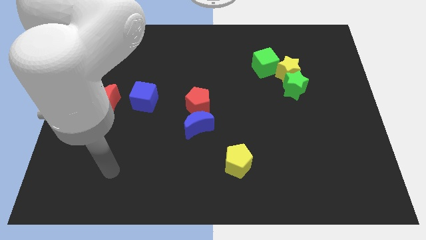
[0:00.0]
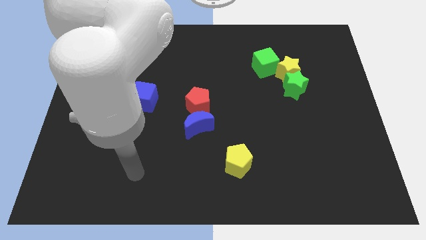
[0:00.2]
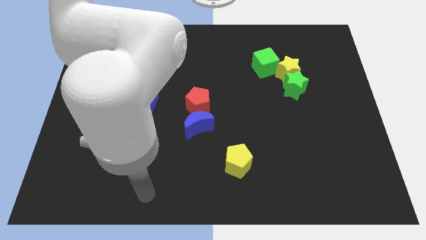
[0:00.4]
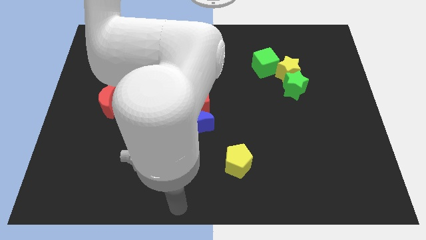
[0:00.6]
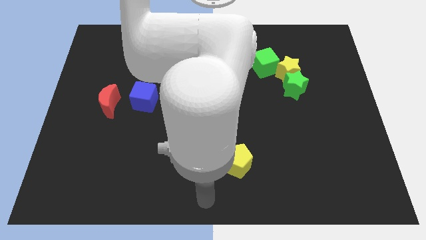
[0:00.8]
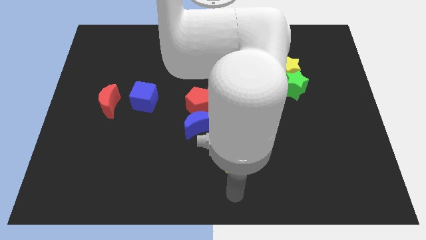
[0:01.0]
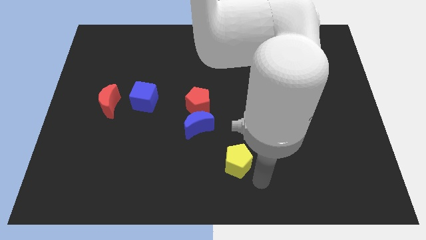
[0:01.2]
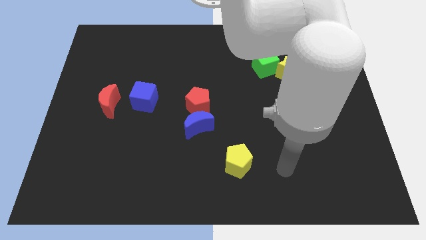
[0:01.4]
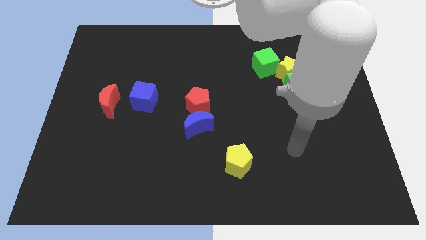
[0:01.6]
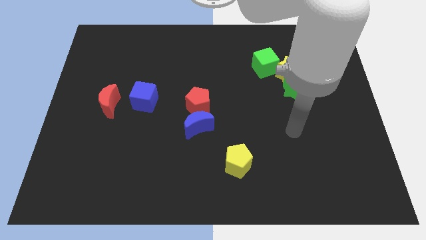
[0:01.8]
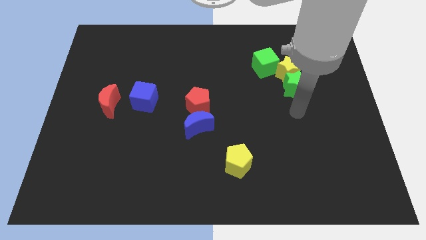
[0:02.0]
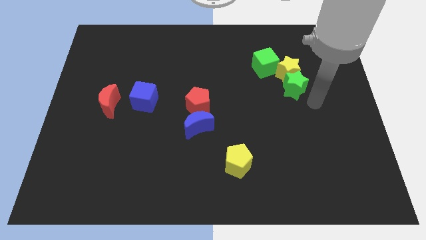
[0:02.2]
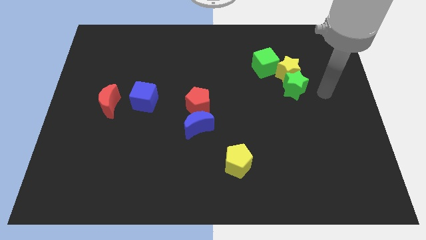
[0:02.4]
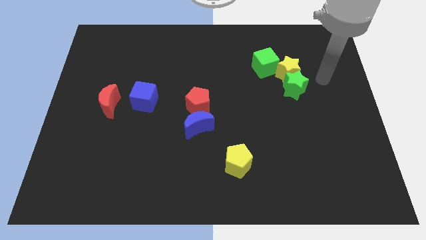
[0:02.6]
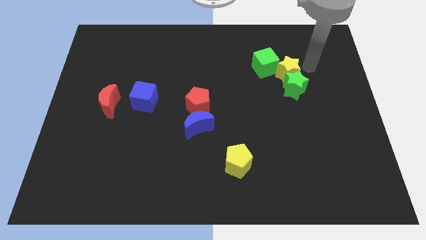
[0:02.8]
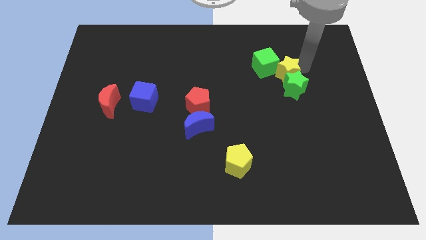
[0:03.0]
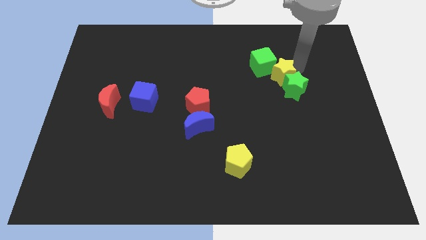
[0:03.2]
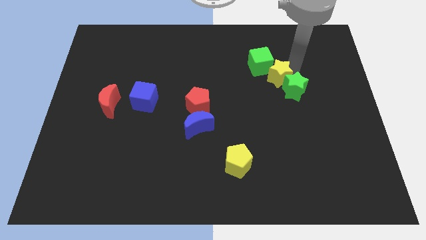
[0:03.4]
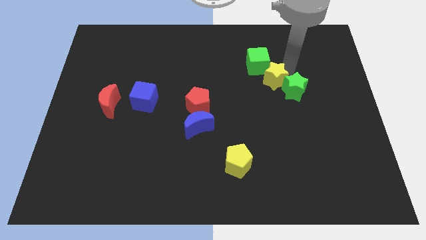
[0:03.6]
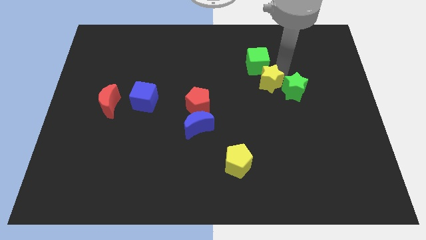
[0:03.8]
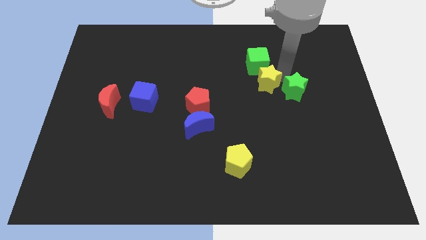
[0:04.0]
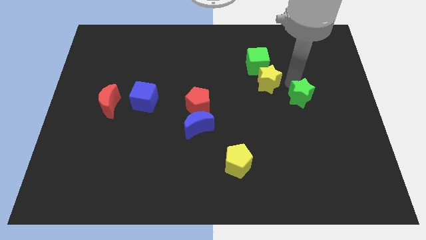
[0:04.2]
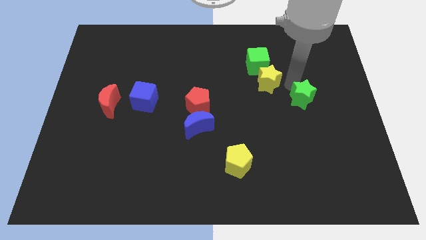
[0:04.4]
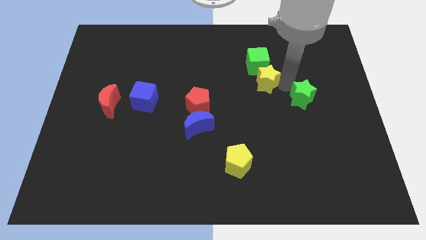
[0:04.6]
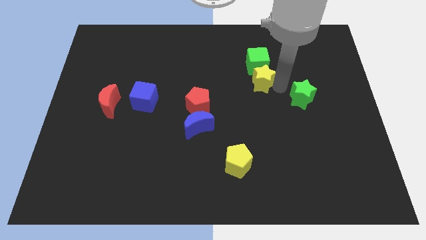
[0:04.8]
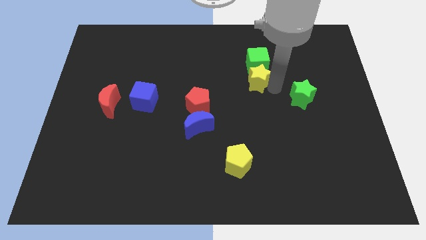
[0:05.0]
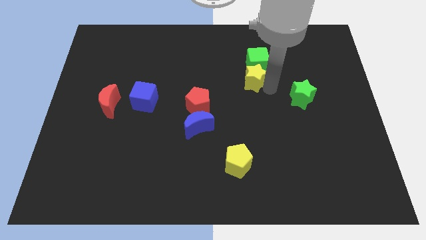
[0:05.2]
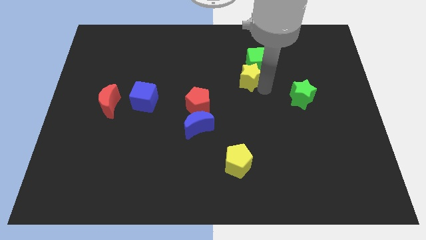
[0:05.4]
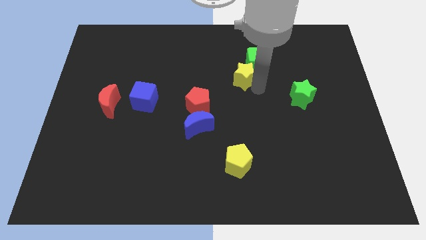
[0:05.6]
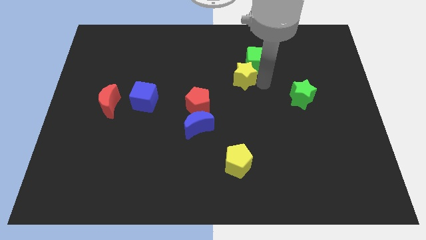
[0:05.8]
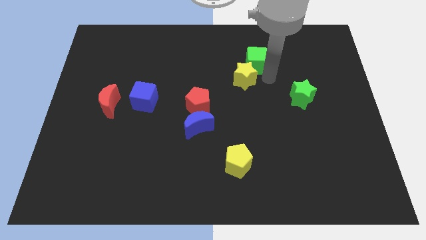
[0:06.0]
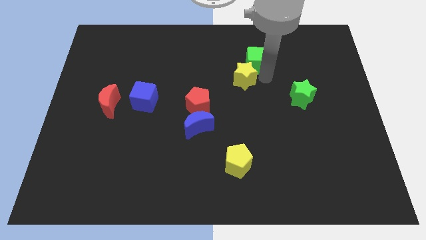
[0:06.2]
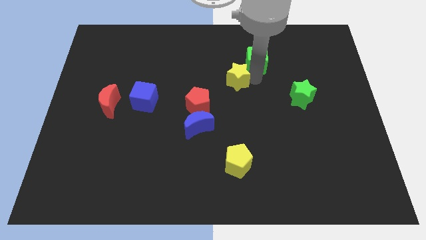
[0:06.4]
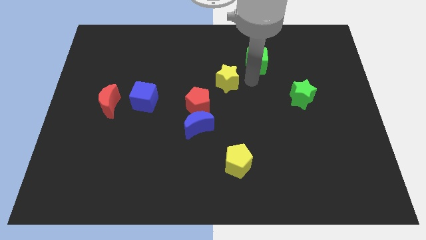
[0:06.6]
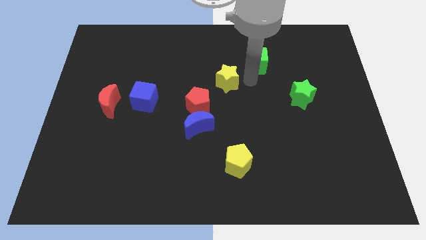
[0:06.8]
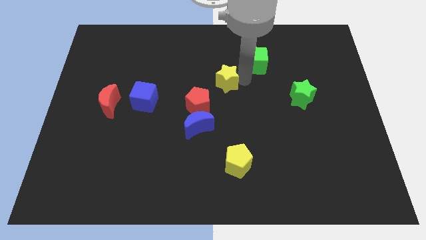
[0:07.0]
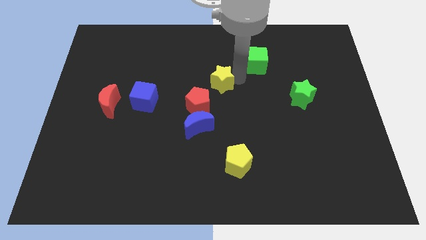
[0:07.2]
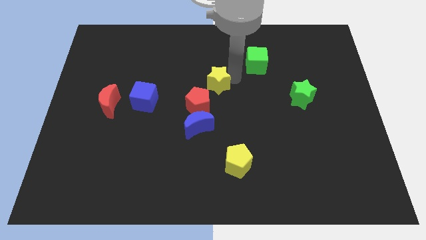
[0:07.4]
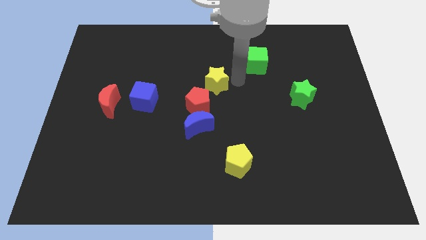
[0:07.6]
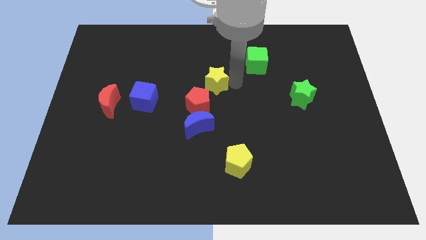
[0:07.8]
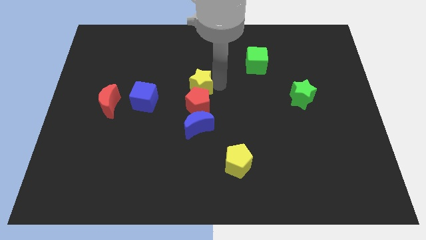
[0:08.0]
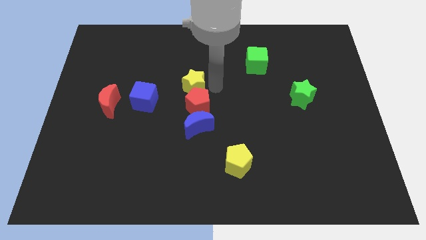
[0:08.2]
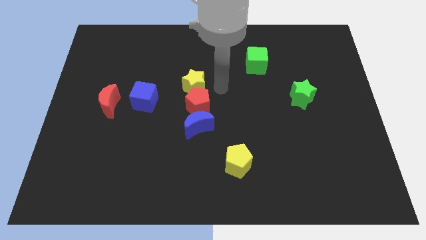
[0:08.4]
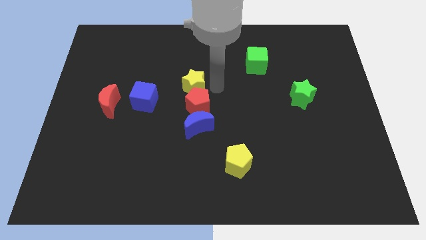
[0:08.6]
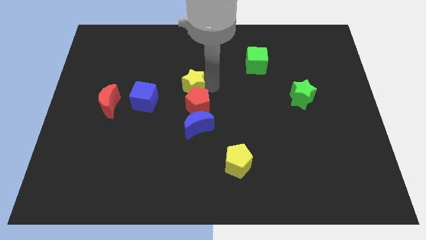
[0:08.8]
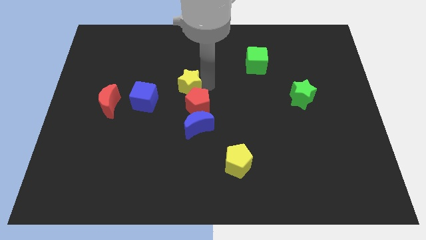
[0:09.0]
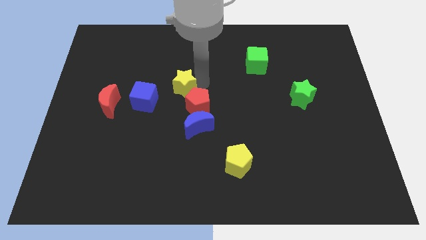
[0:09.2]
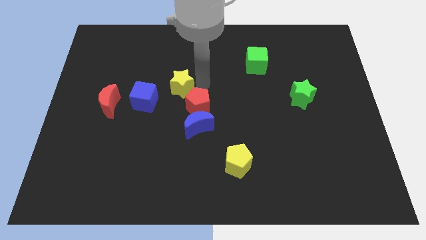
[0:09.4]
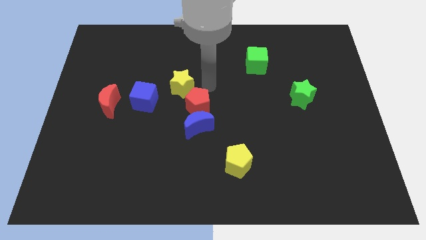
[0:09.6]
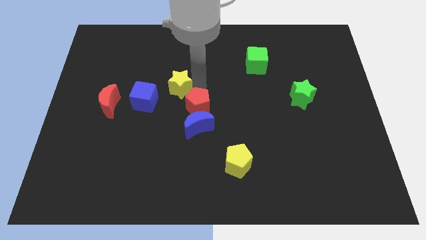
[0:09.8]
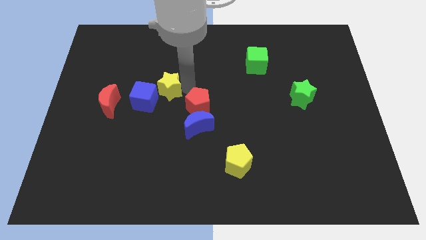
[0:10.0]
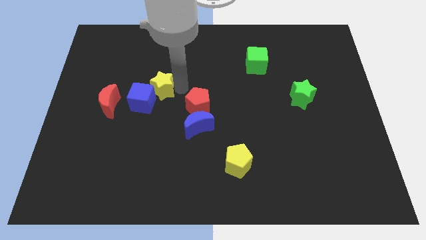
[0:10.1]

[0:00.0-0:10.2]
push the yellow star towards the blue cube

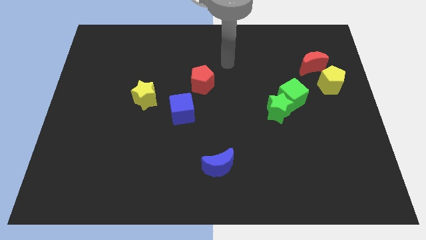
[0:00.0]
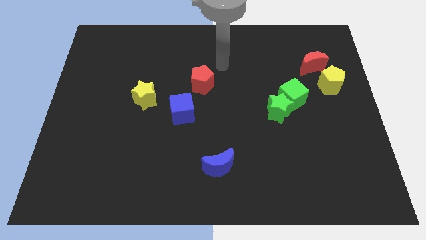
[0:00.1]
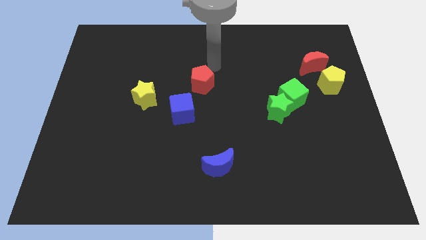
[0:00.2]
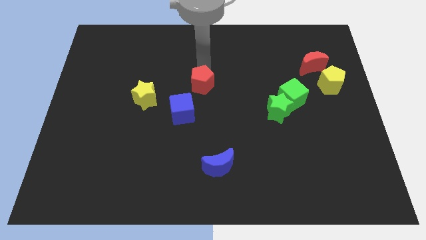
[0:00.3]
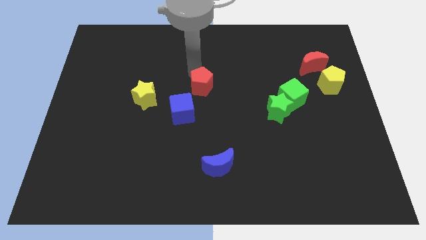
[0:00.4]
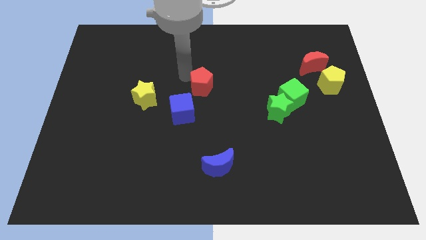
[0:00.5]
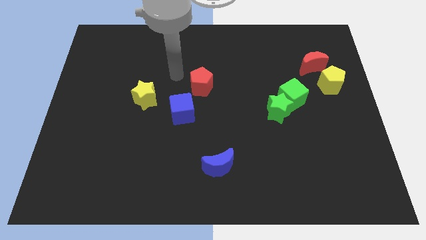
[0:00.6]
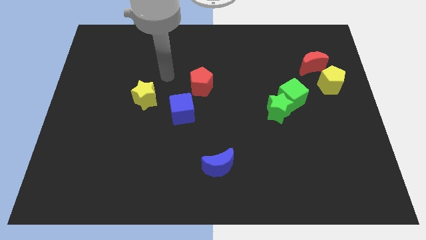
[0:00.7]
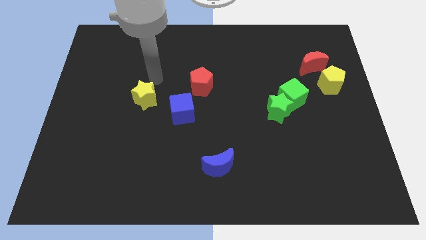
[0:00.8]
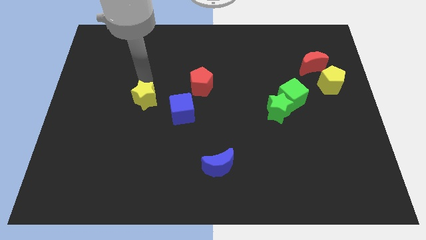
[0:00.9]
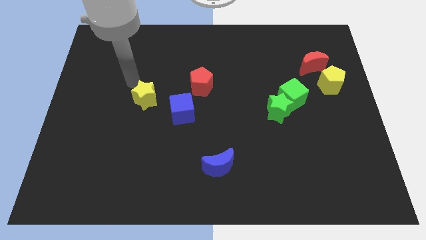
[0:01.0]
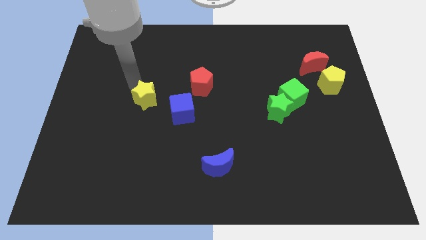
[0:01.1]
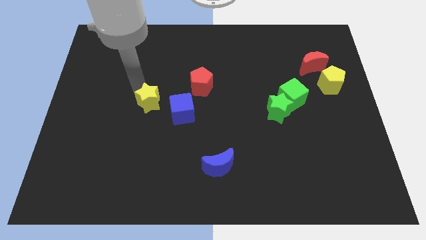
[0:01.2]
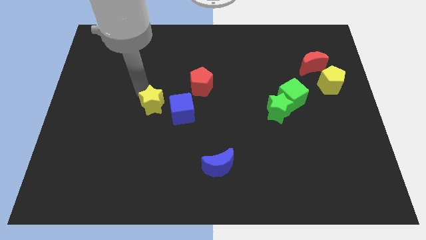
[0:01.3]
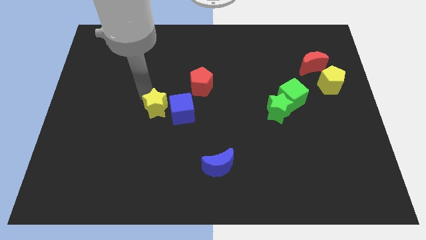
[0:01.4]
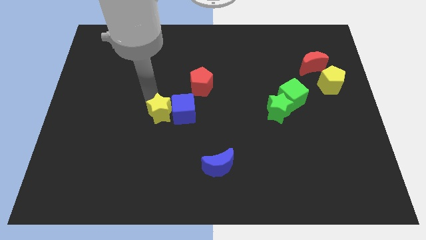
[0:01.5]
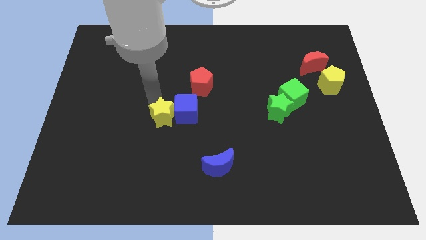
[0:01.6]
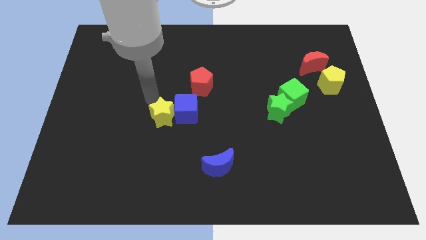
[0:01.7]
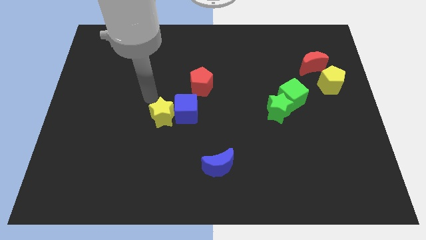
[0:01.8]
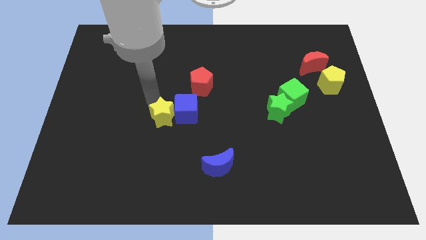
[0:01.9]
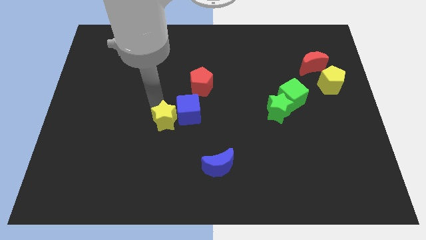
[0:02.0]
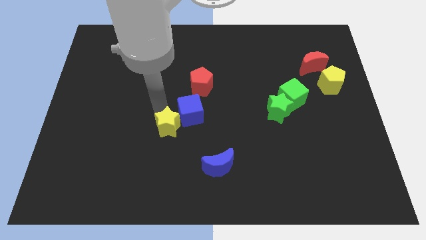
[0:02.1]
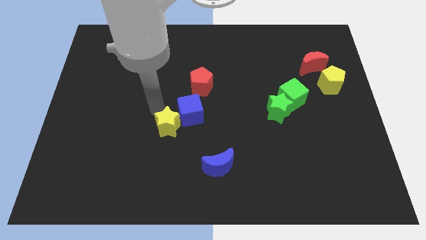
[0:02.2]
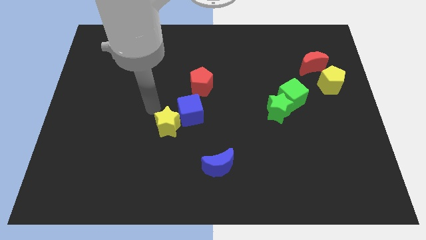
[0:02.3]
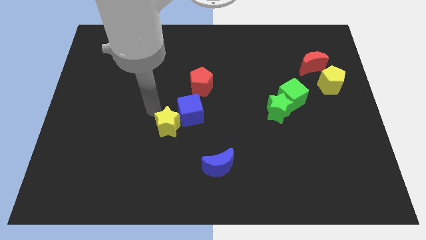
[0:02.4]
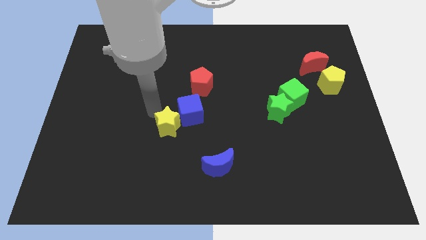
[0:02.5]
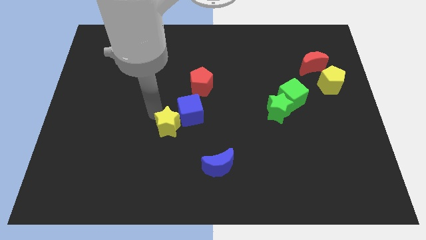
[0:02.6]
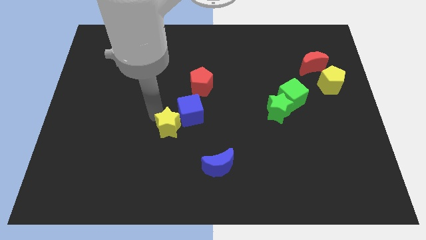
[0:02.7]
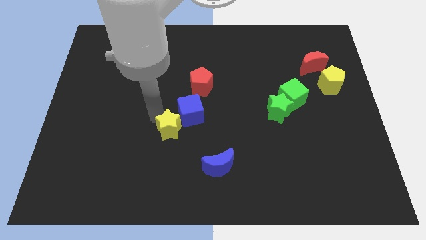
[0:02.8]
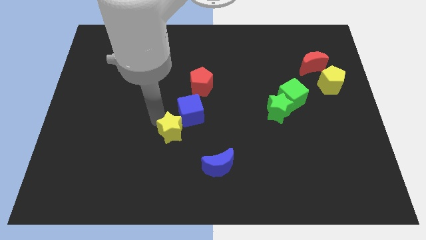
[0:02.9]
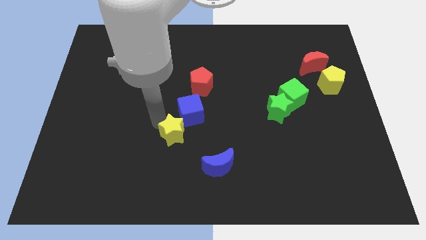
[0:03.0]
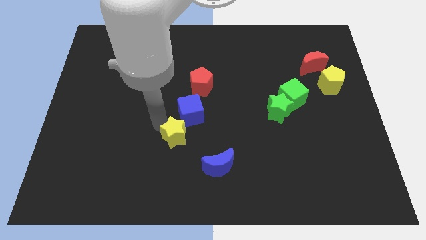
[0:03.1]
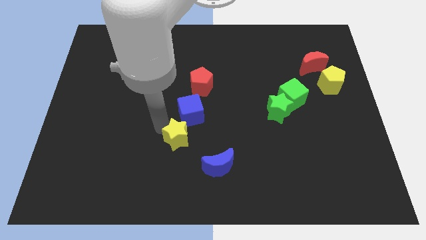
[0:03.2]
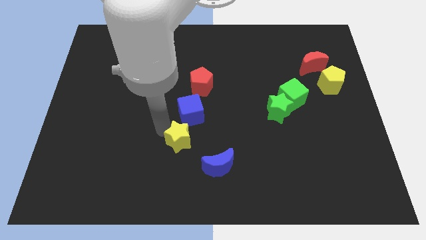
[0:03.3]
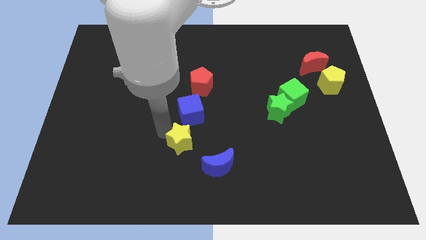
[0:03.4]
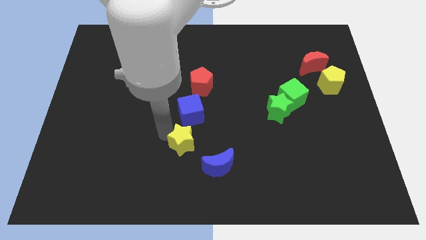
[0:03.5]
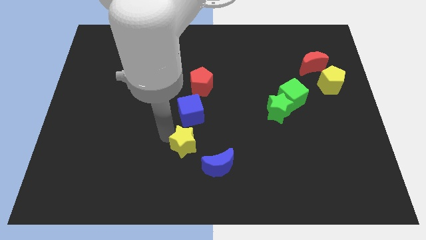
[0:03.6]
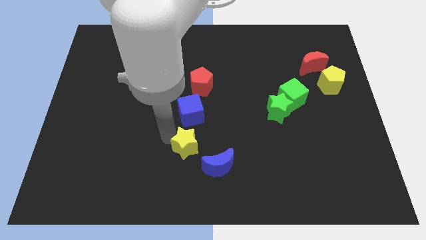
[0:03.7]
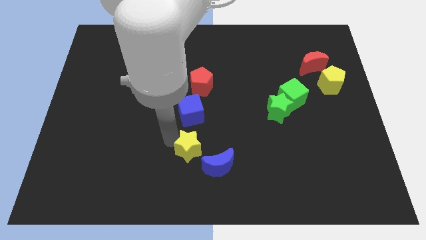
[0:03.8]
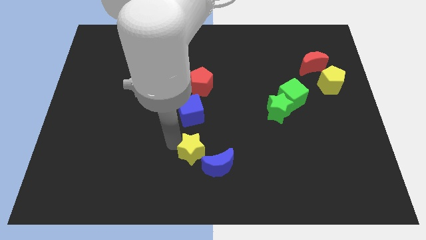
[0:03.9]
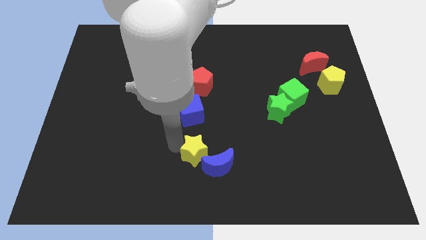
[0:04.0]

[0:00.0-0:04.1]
slide the yellow star close to the blue moon
